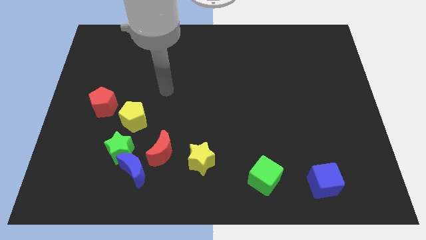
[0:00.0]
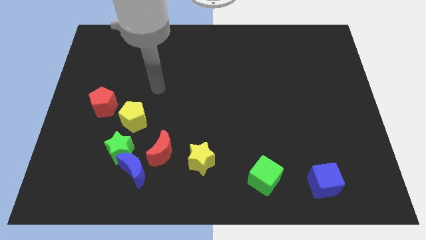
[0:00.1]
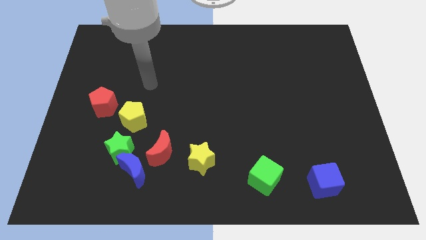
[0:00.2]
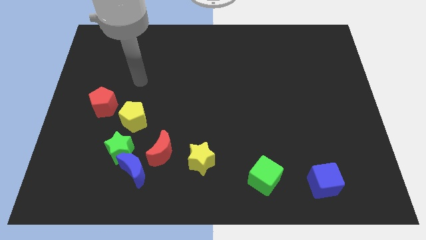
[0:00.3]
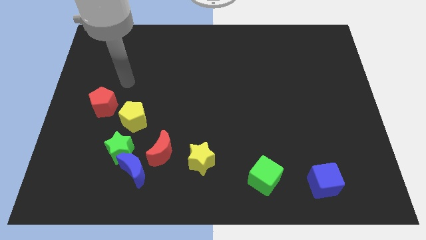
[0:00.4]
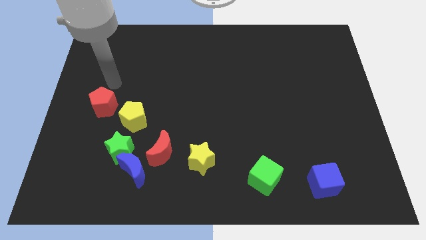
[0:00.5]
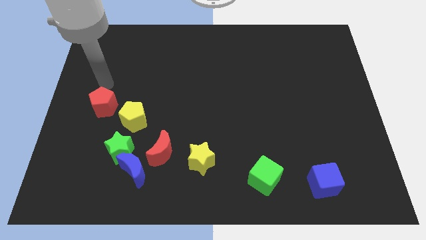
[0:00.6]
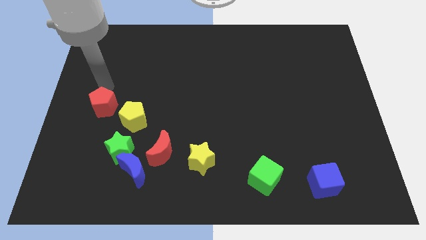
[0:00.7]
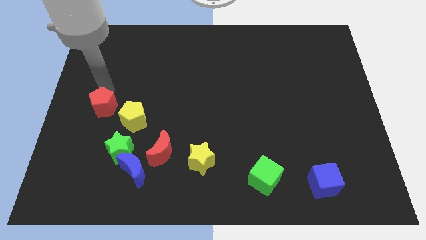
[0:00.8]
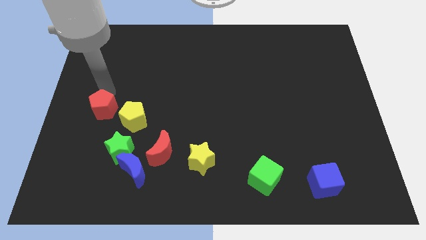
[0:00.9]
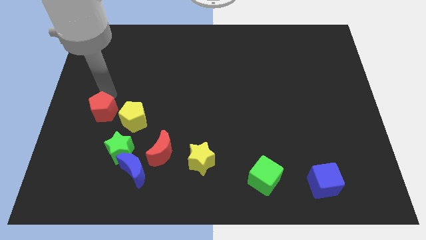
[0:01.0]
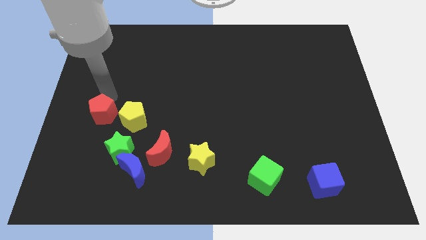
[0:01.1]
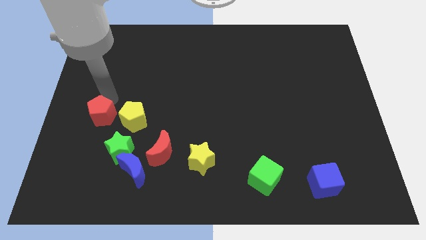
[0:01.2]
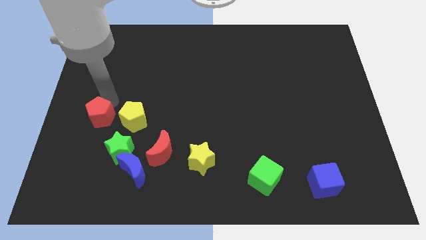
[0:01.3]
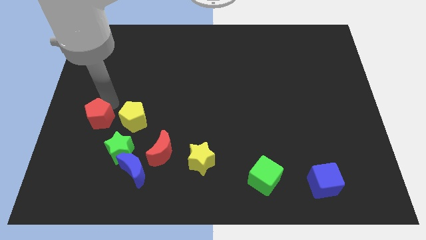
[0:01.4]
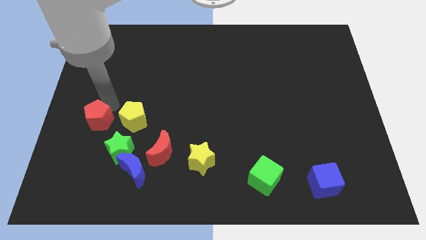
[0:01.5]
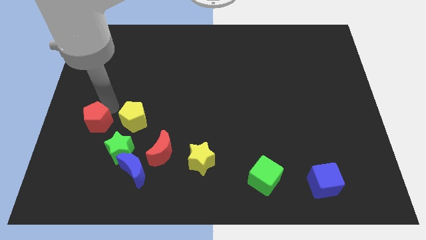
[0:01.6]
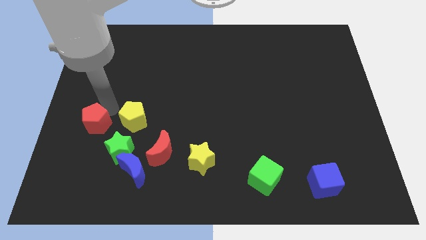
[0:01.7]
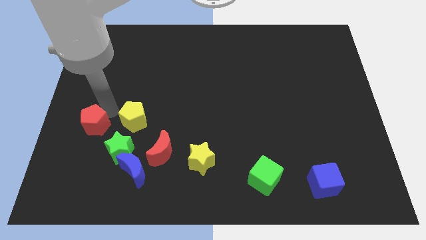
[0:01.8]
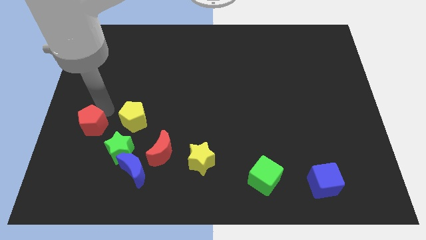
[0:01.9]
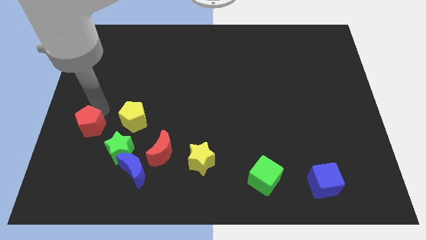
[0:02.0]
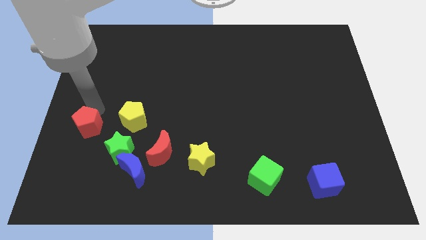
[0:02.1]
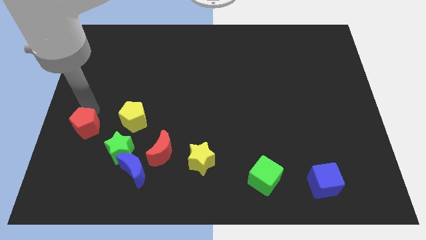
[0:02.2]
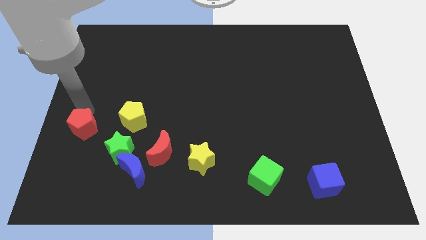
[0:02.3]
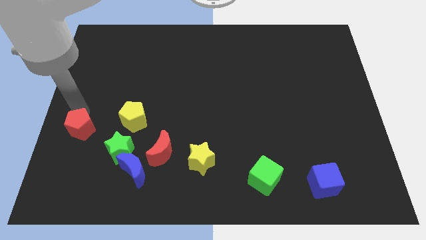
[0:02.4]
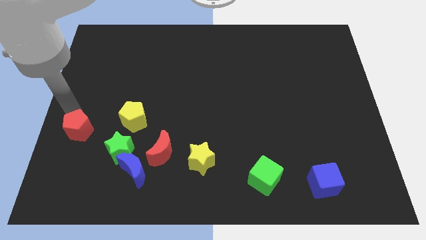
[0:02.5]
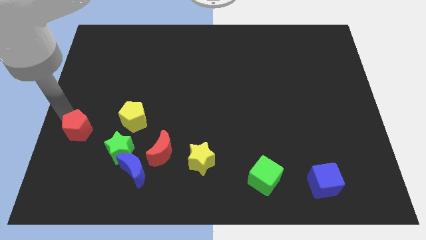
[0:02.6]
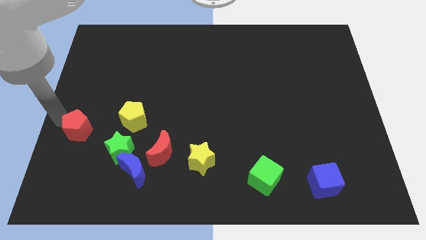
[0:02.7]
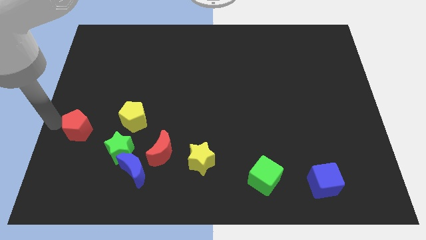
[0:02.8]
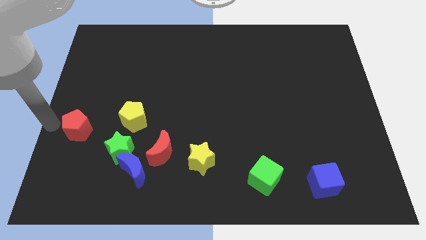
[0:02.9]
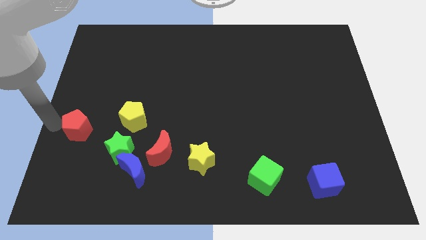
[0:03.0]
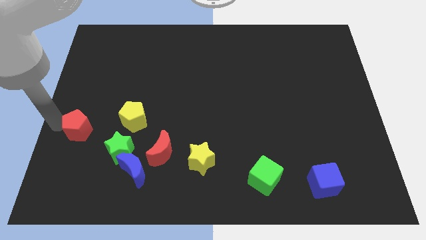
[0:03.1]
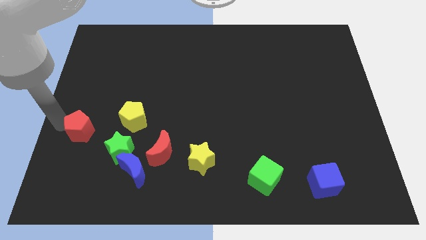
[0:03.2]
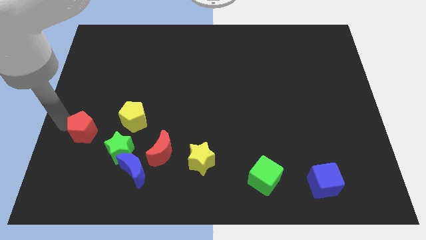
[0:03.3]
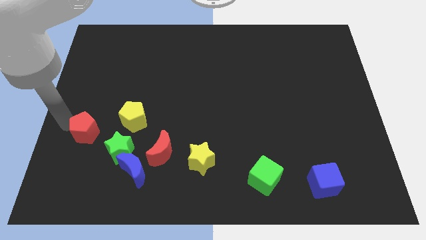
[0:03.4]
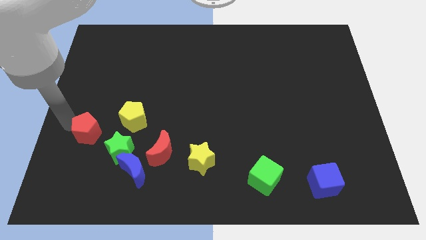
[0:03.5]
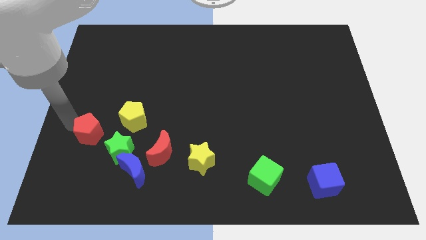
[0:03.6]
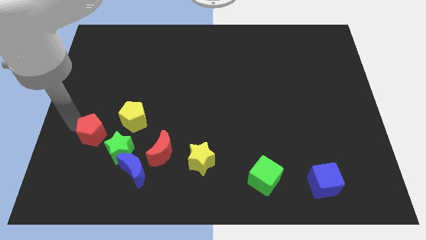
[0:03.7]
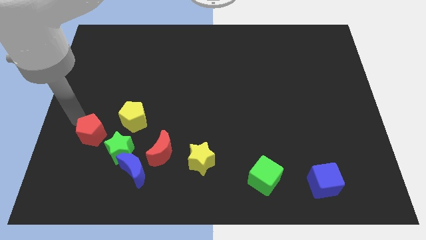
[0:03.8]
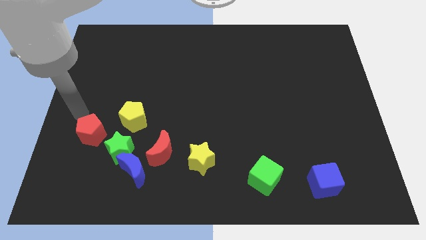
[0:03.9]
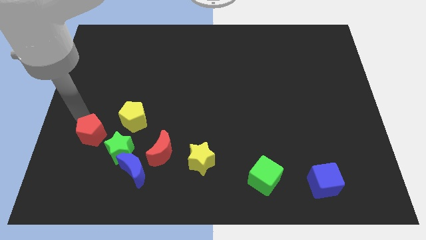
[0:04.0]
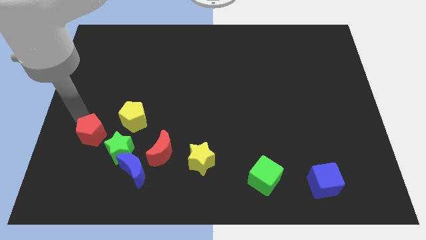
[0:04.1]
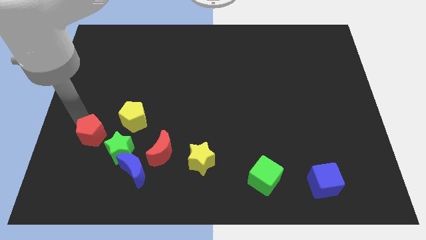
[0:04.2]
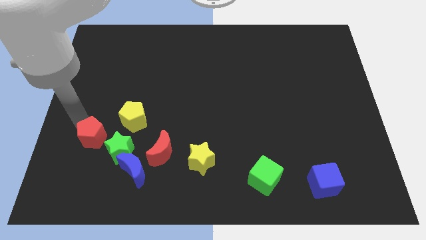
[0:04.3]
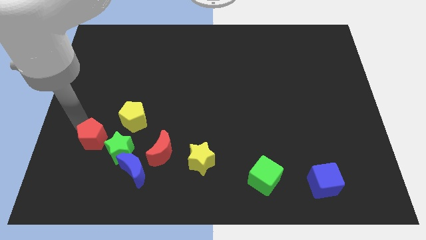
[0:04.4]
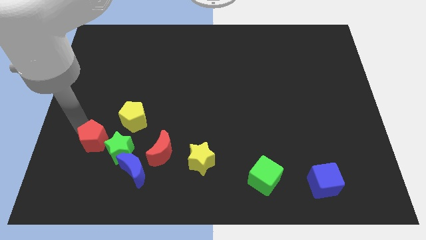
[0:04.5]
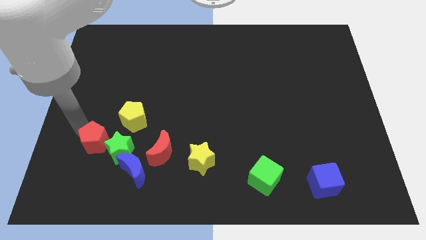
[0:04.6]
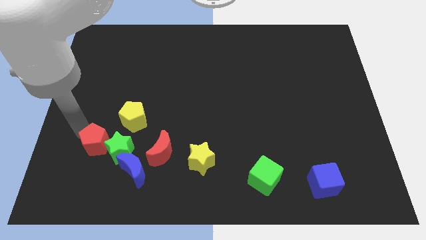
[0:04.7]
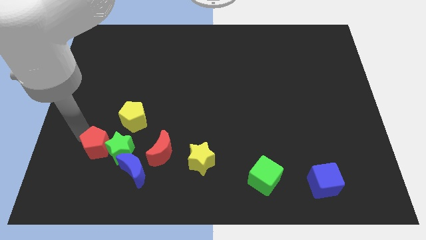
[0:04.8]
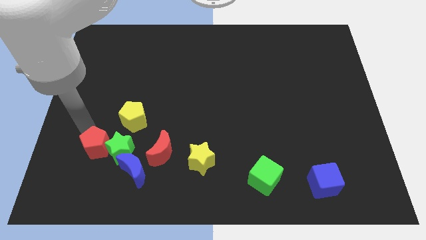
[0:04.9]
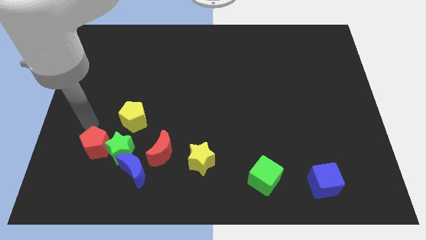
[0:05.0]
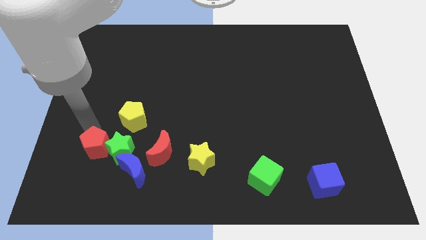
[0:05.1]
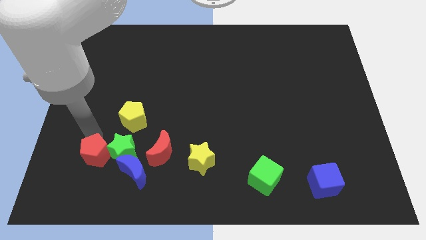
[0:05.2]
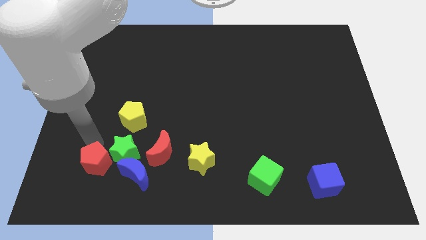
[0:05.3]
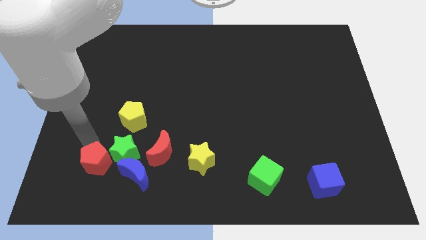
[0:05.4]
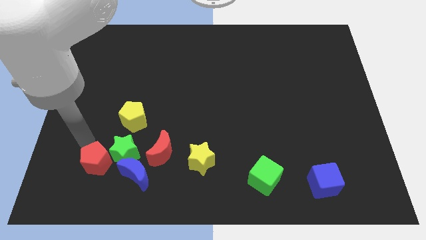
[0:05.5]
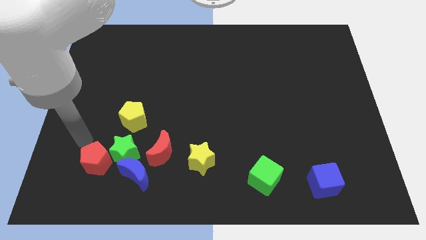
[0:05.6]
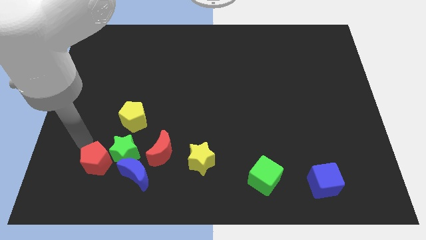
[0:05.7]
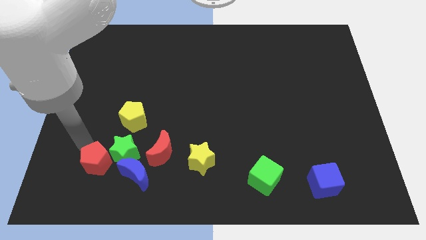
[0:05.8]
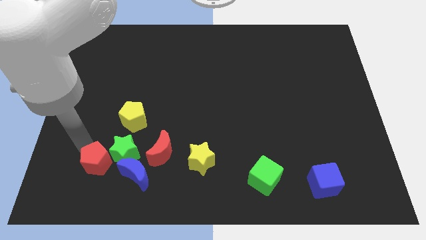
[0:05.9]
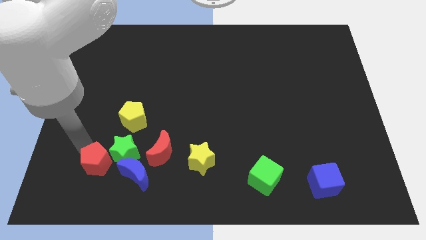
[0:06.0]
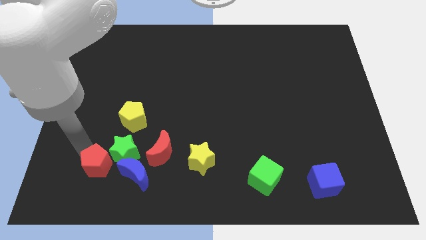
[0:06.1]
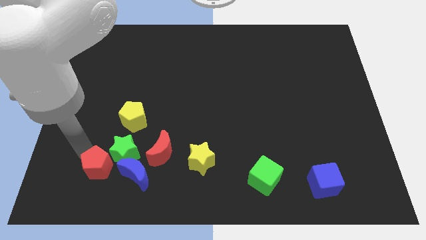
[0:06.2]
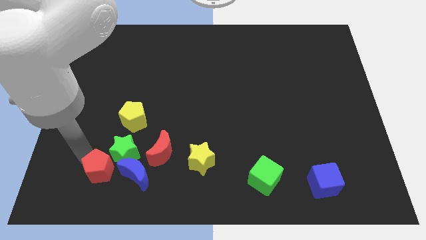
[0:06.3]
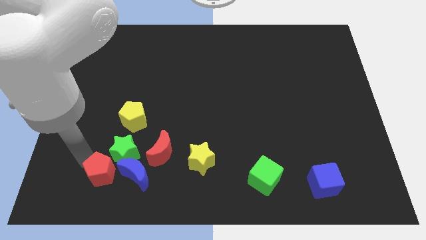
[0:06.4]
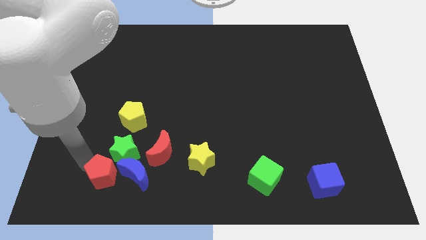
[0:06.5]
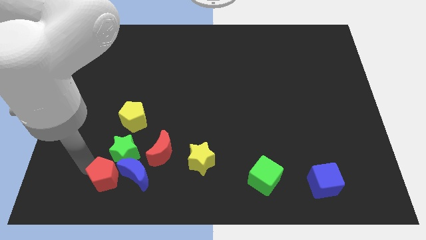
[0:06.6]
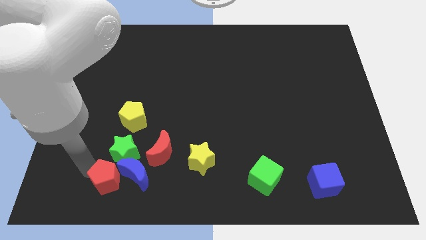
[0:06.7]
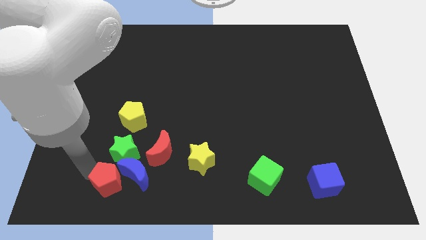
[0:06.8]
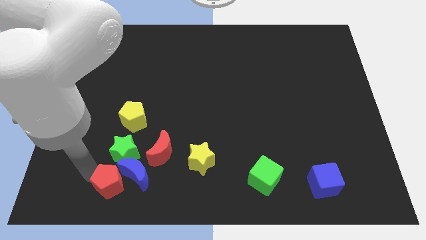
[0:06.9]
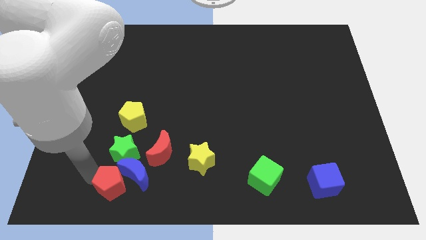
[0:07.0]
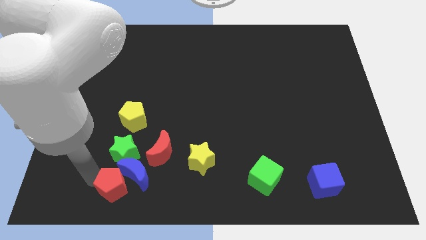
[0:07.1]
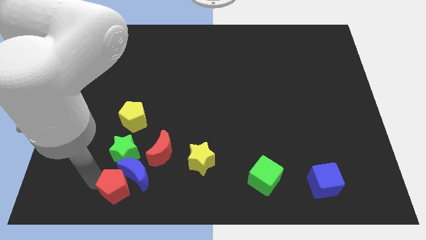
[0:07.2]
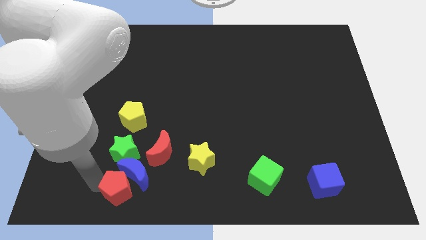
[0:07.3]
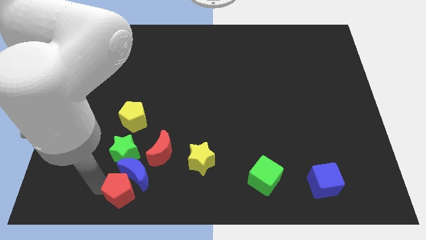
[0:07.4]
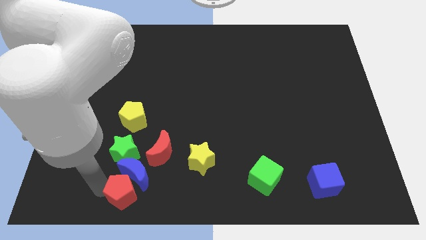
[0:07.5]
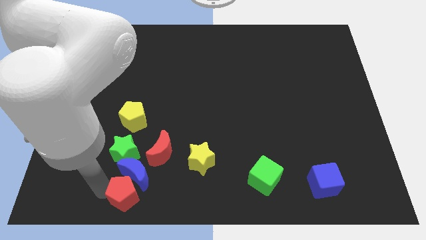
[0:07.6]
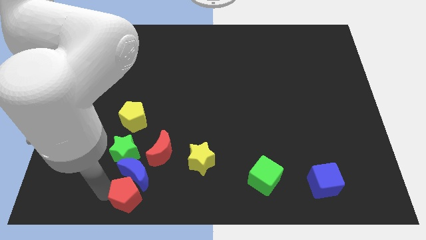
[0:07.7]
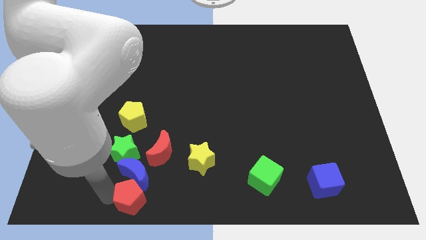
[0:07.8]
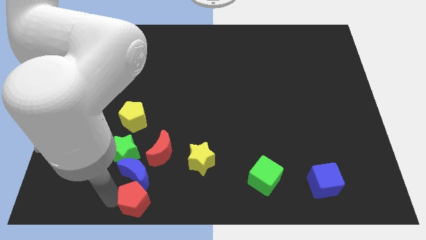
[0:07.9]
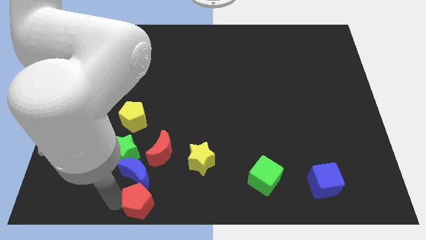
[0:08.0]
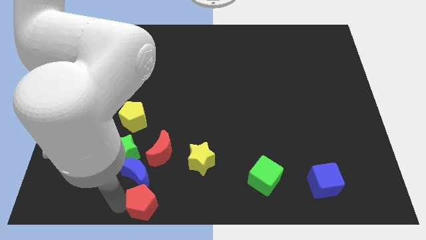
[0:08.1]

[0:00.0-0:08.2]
slide the red pentagon to the bottom
